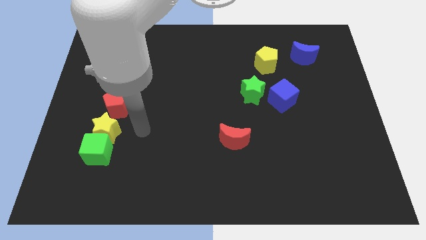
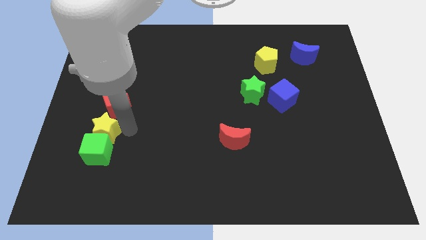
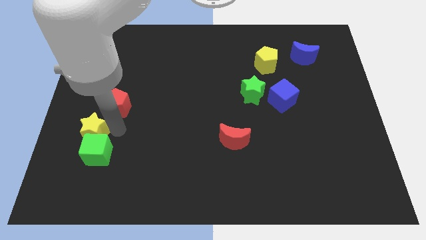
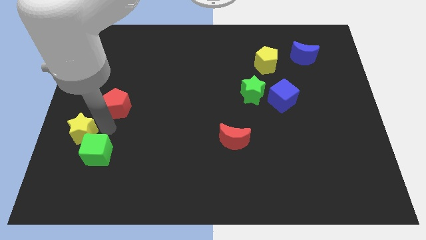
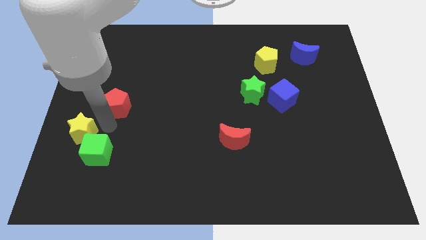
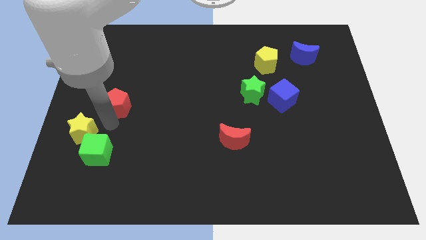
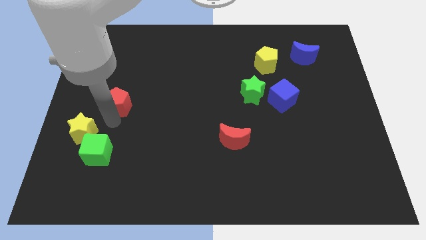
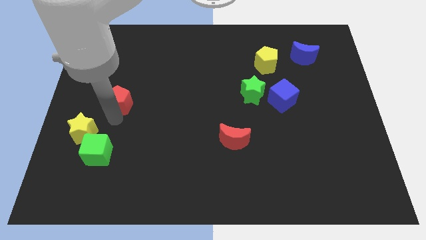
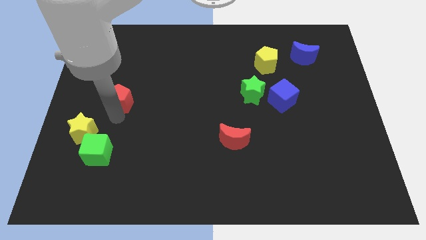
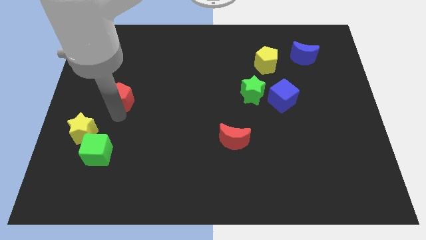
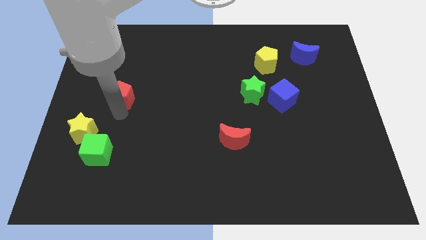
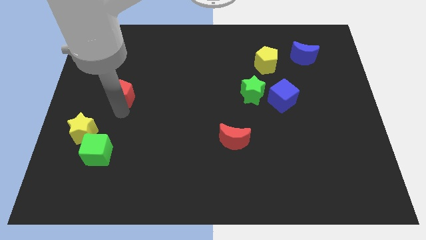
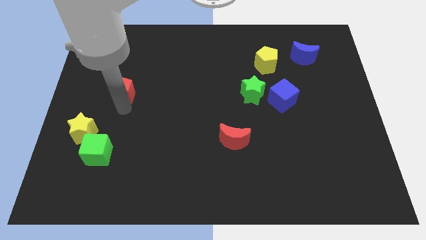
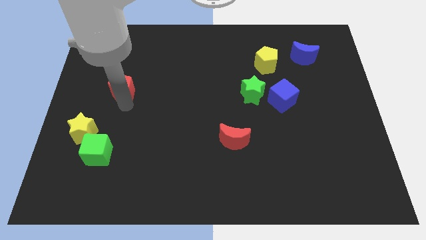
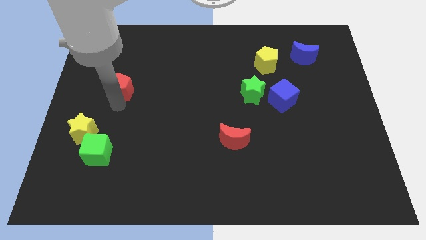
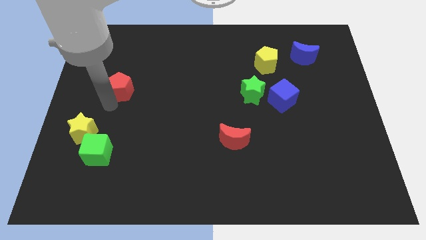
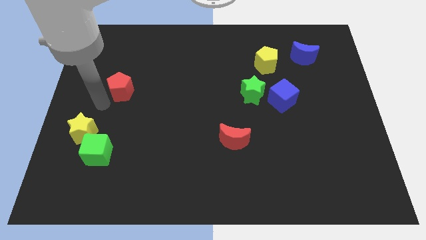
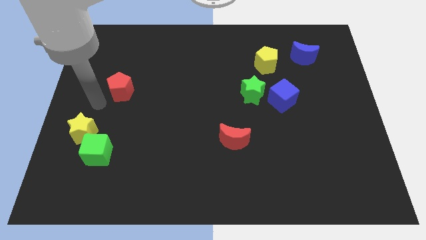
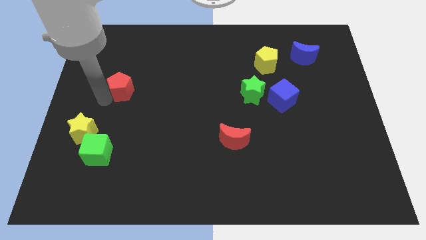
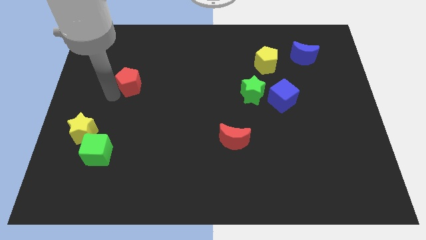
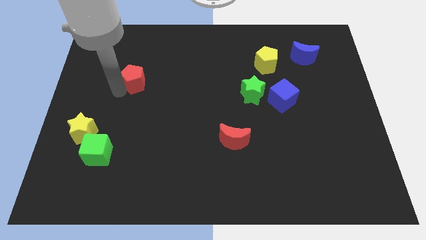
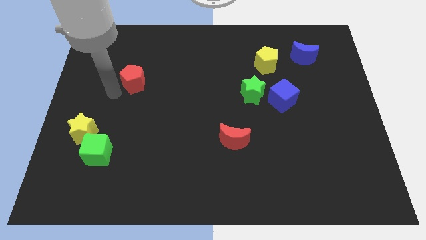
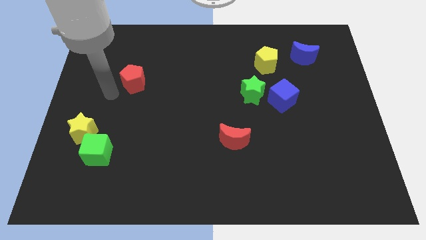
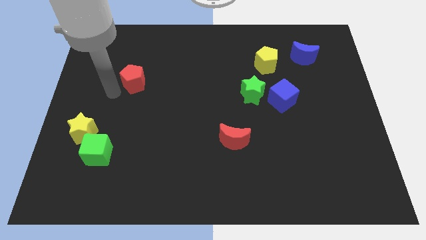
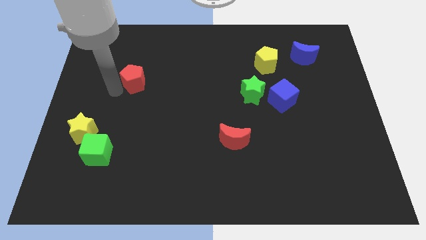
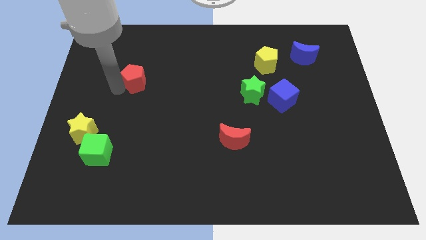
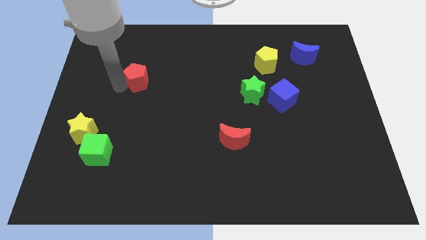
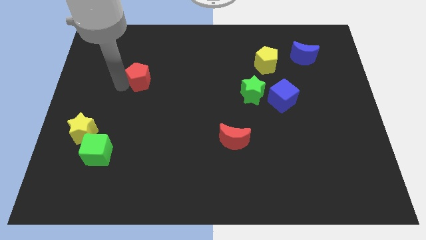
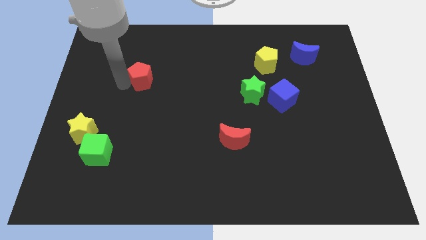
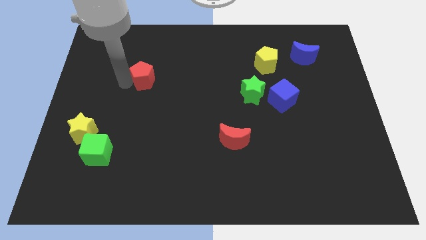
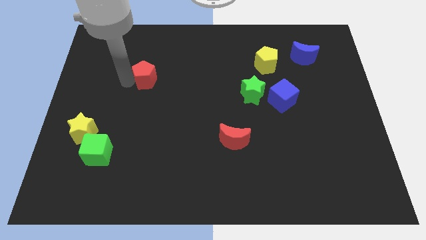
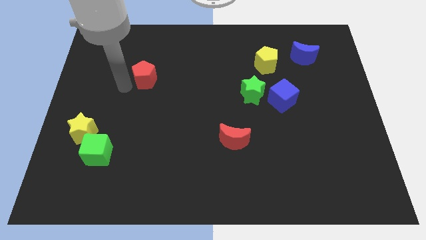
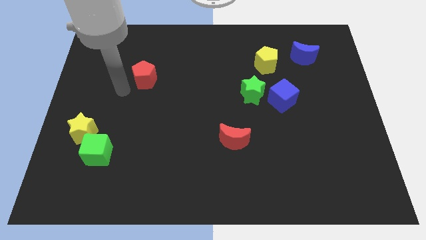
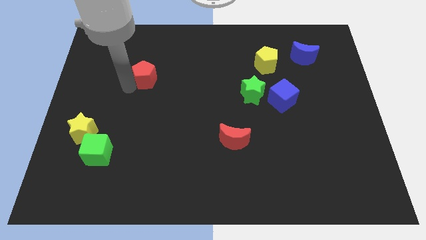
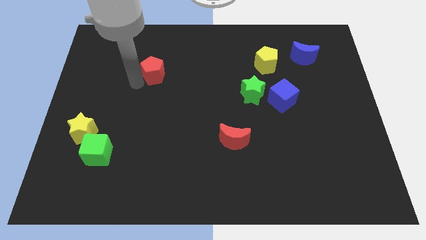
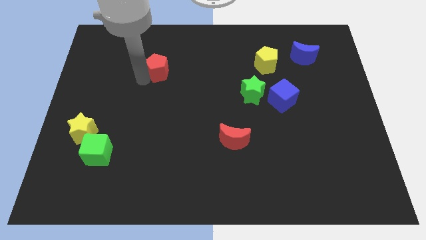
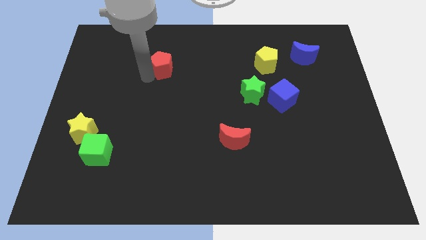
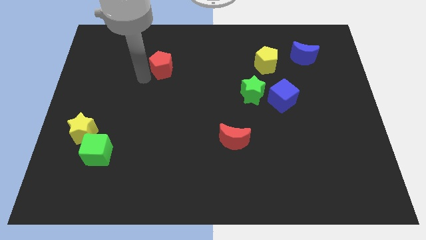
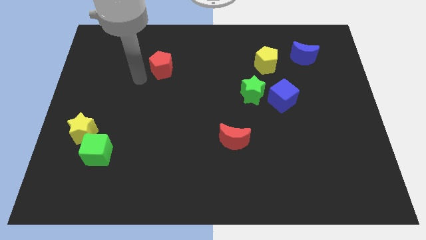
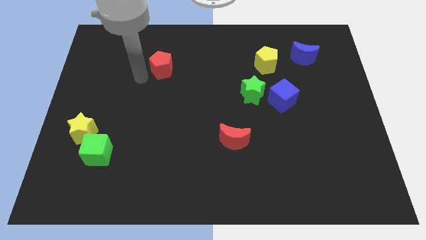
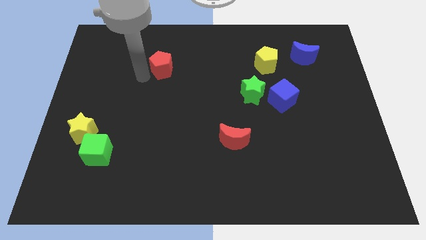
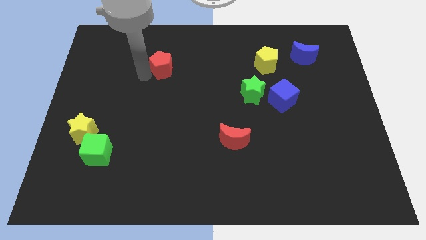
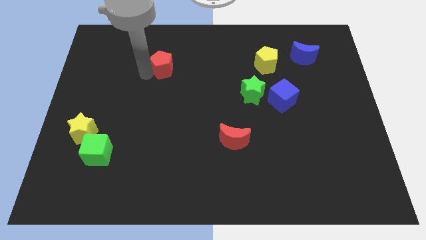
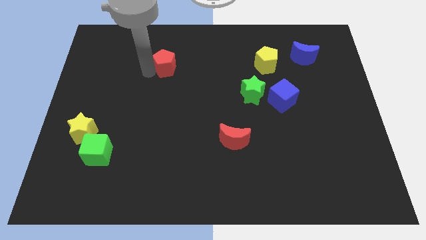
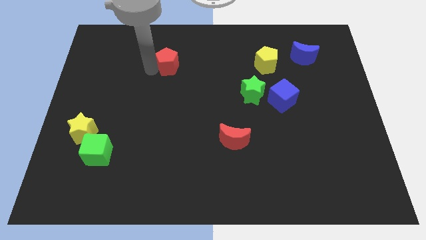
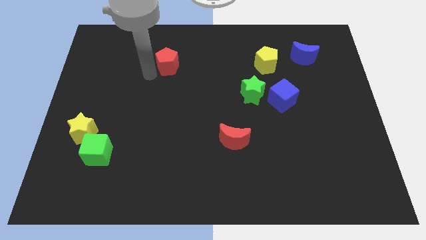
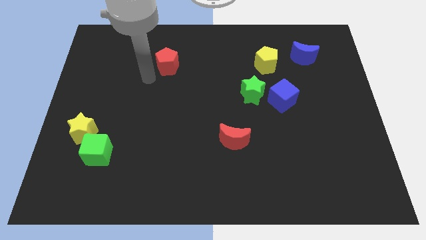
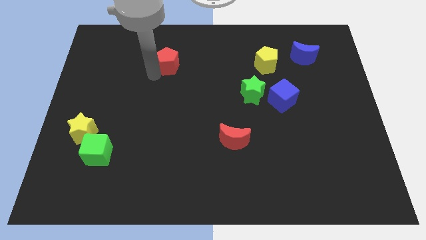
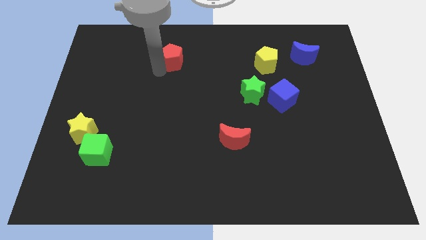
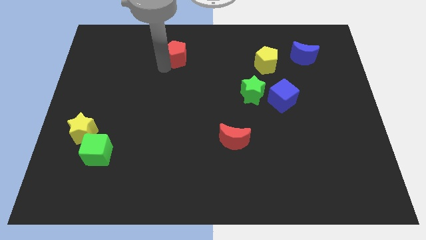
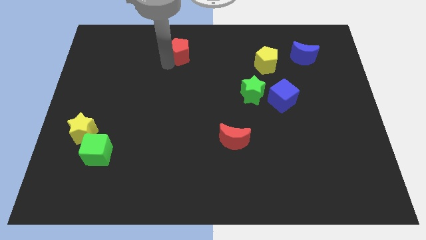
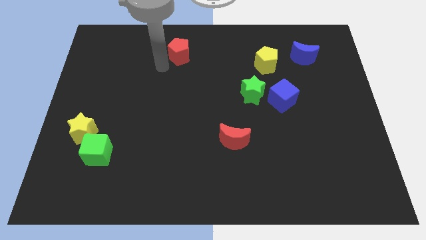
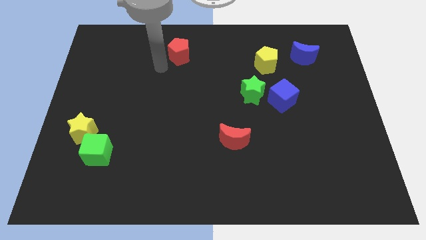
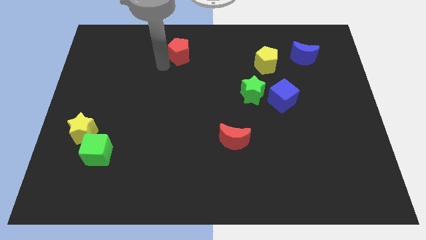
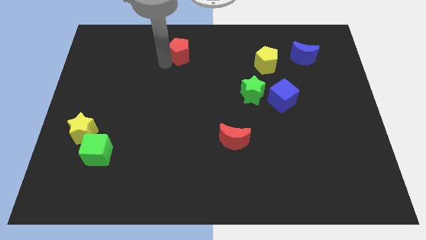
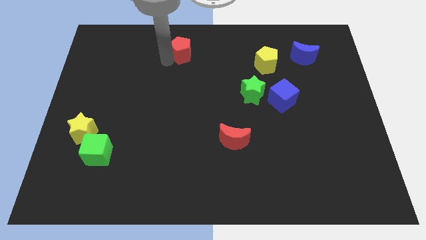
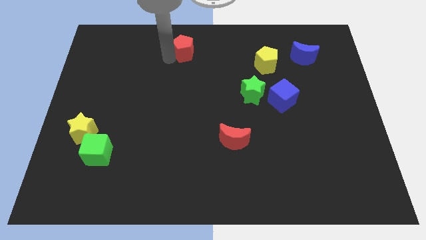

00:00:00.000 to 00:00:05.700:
move the red pentagon to the top
